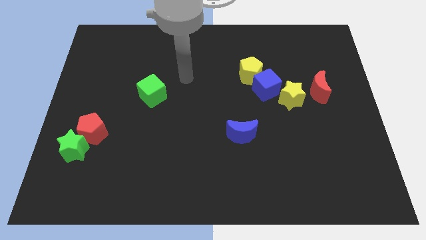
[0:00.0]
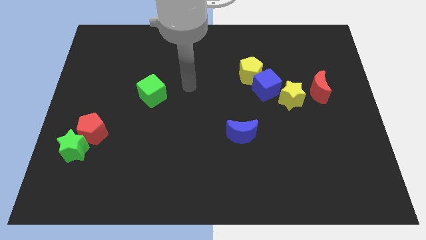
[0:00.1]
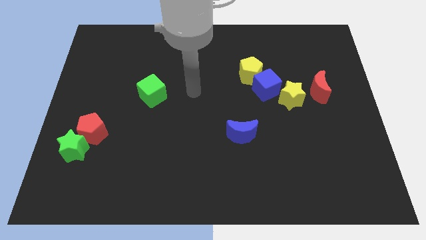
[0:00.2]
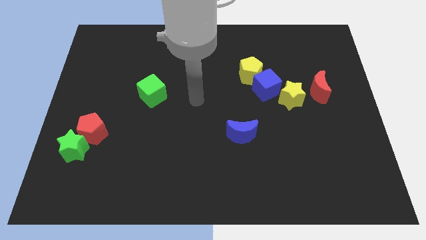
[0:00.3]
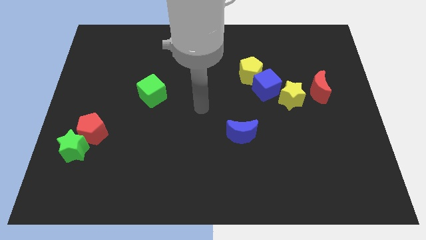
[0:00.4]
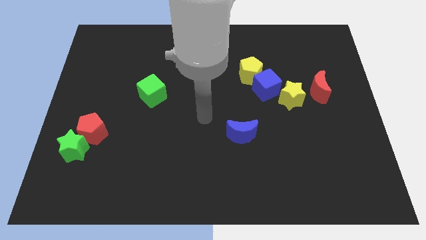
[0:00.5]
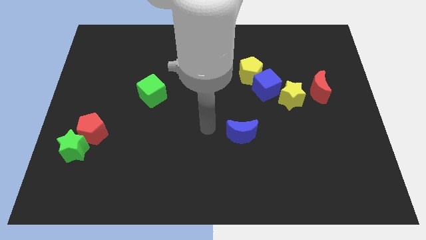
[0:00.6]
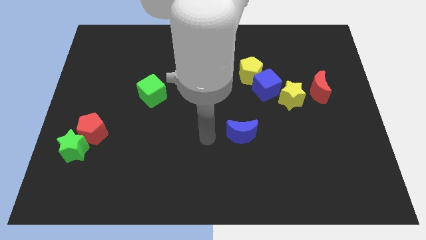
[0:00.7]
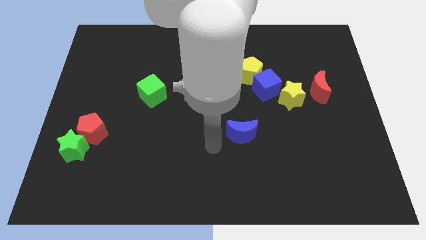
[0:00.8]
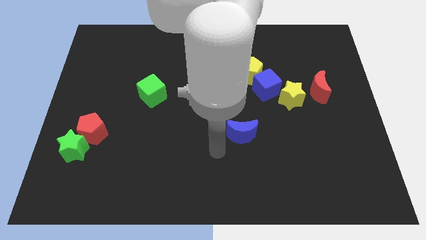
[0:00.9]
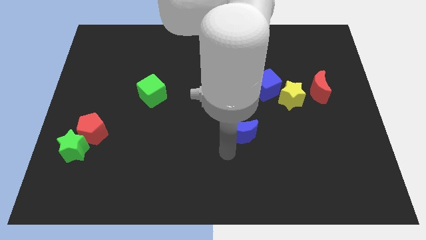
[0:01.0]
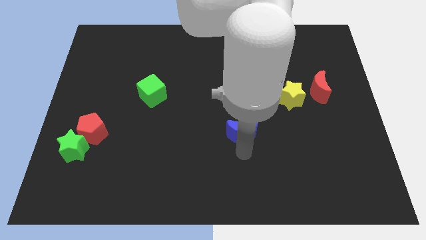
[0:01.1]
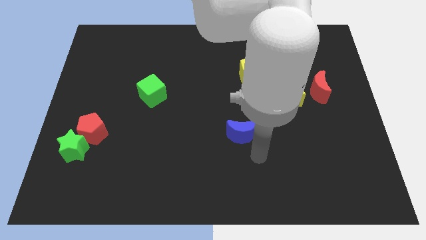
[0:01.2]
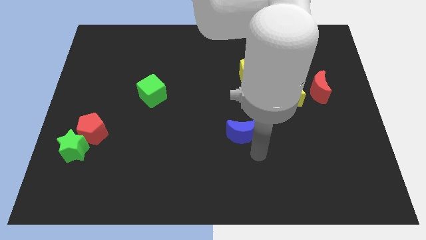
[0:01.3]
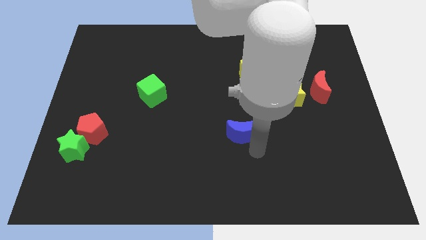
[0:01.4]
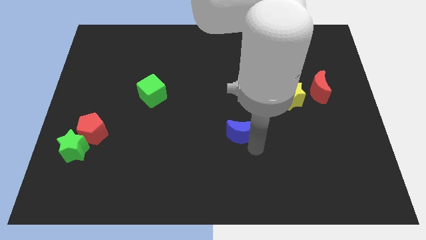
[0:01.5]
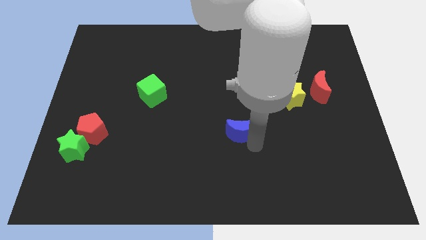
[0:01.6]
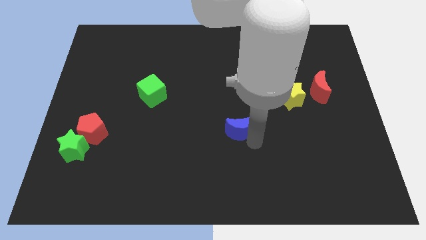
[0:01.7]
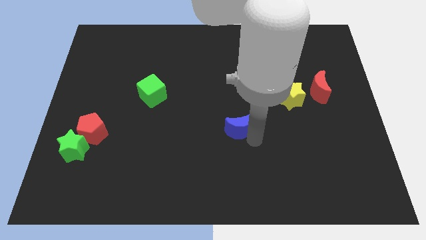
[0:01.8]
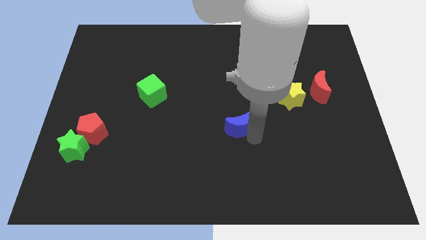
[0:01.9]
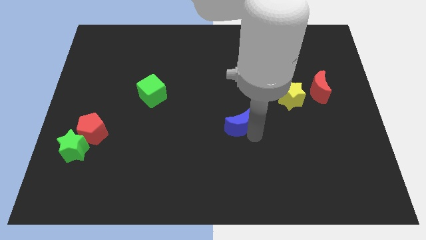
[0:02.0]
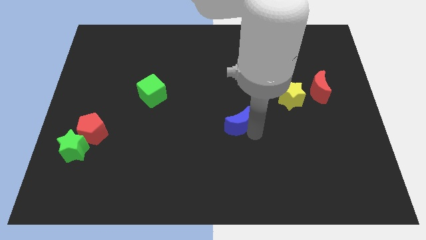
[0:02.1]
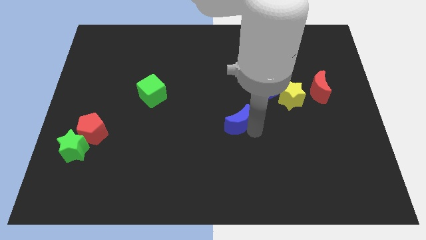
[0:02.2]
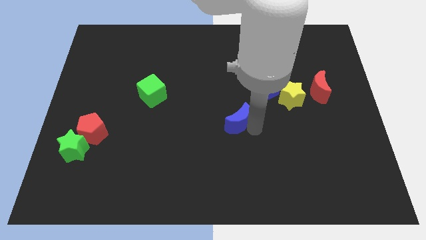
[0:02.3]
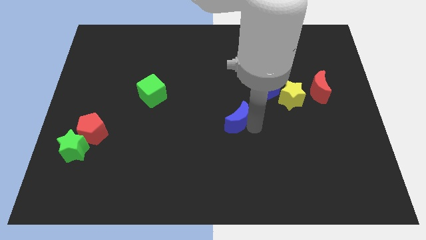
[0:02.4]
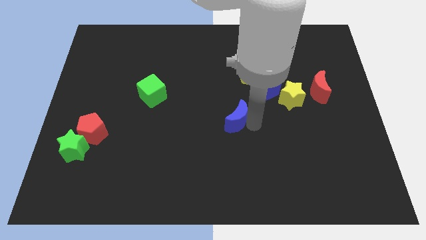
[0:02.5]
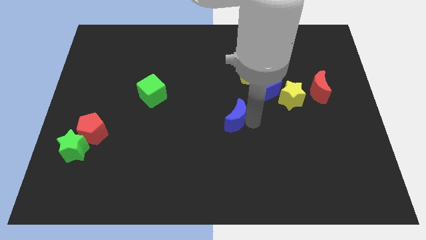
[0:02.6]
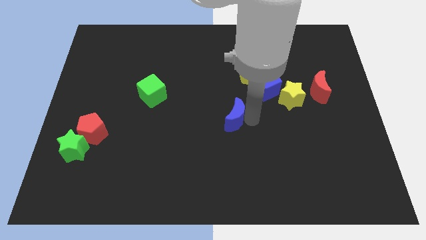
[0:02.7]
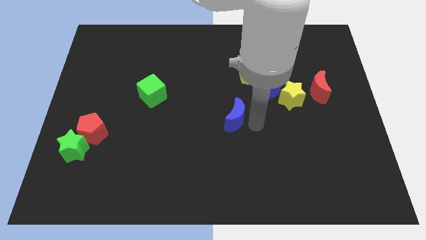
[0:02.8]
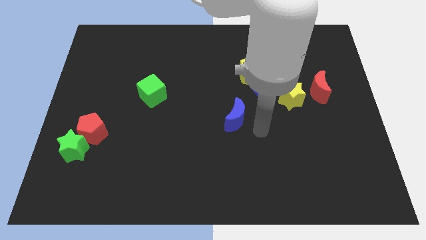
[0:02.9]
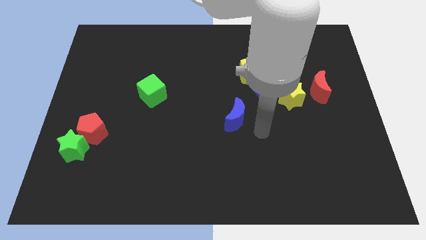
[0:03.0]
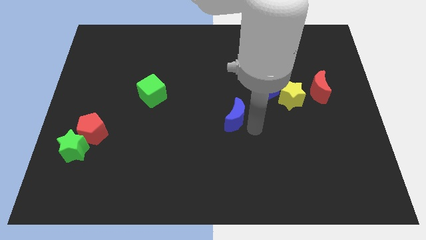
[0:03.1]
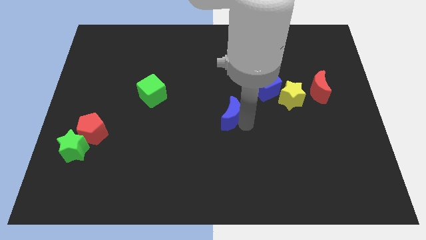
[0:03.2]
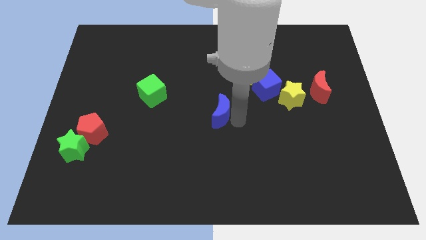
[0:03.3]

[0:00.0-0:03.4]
slide the blue moon a little upwards and left

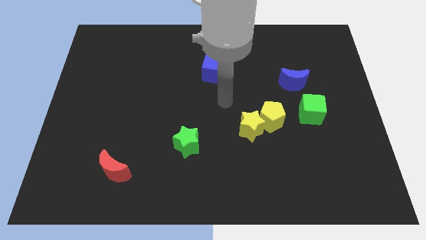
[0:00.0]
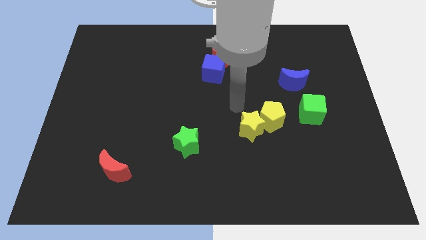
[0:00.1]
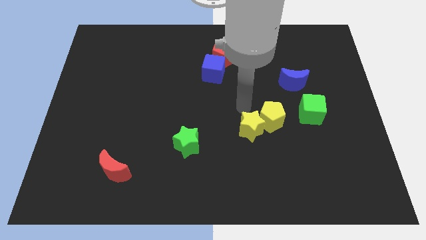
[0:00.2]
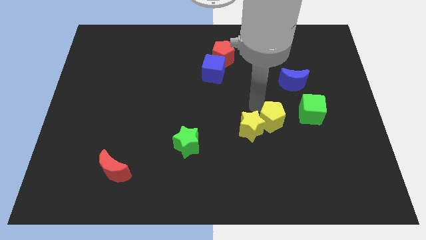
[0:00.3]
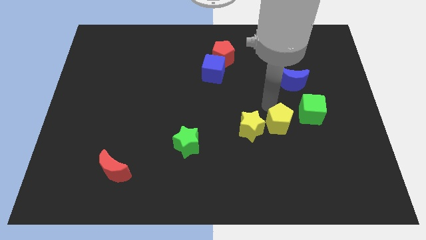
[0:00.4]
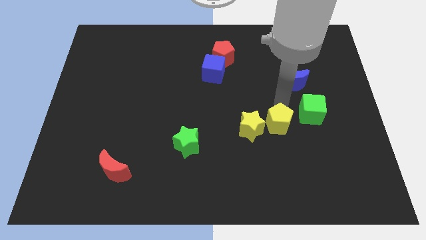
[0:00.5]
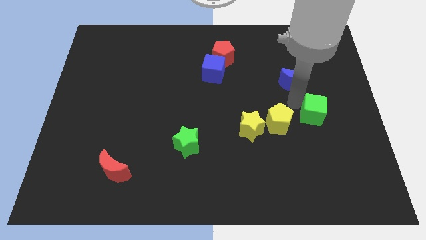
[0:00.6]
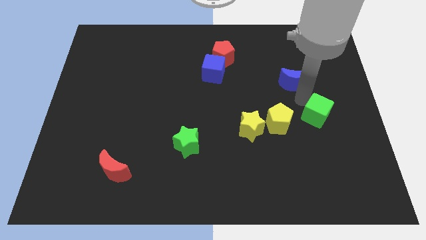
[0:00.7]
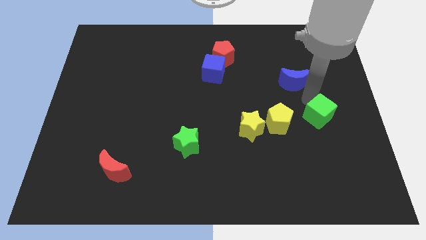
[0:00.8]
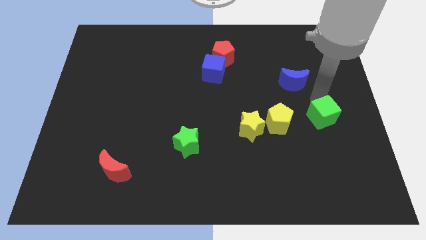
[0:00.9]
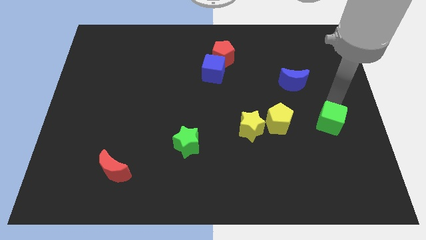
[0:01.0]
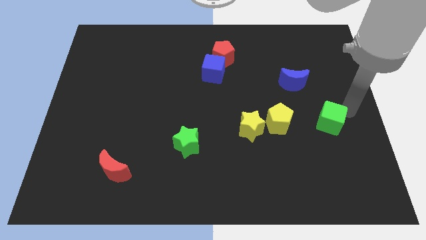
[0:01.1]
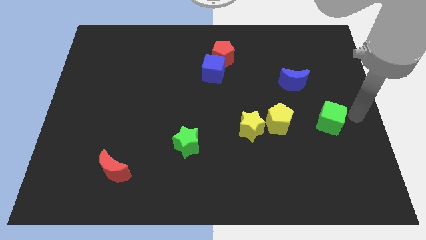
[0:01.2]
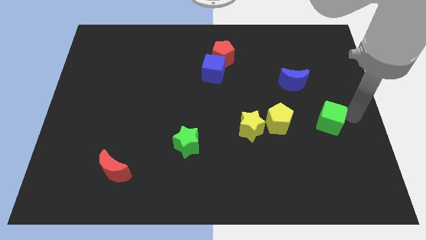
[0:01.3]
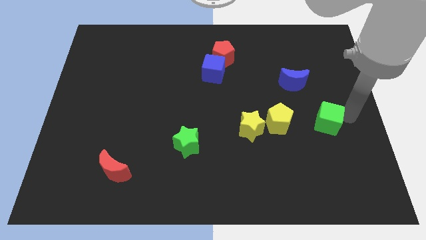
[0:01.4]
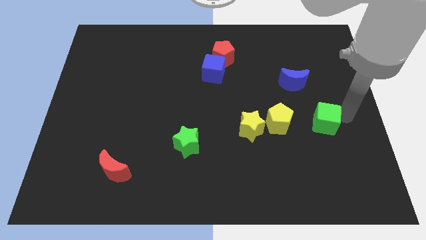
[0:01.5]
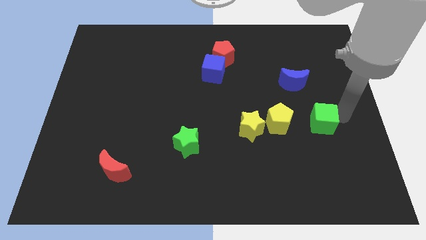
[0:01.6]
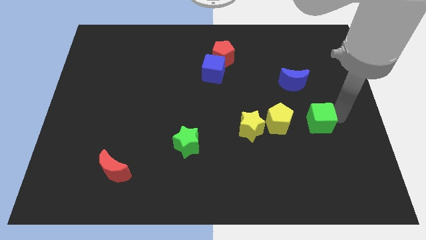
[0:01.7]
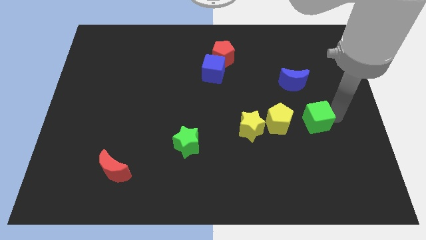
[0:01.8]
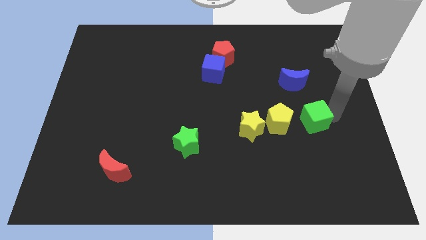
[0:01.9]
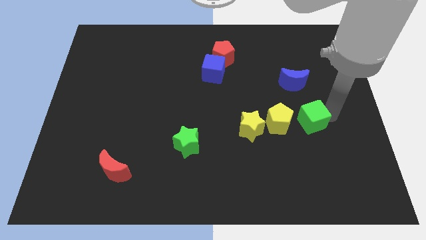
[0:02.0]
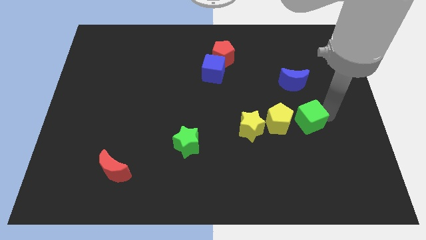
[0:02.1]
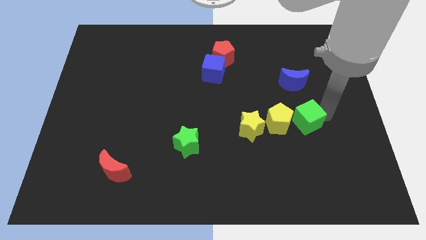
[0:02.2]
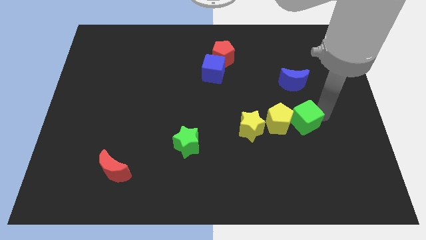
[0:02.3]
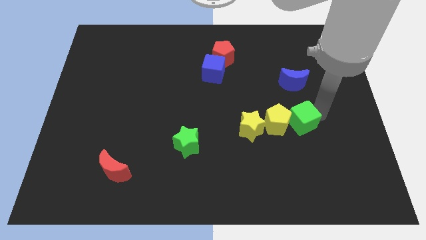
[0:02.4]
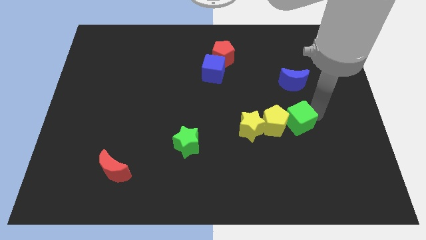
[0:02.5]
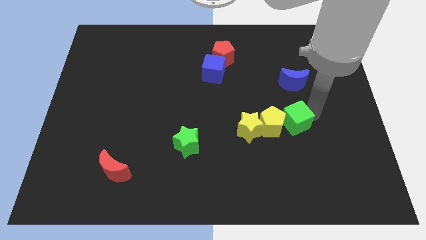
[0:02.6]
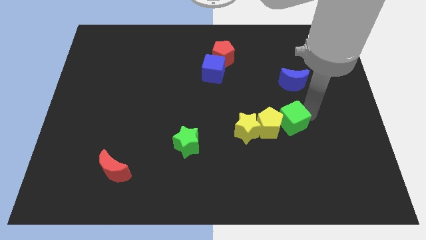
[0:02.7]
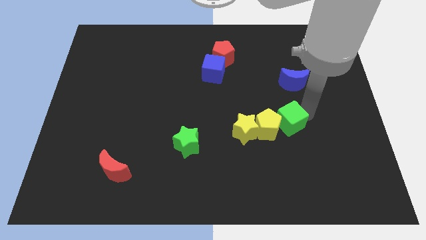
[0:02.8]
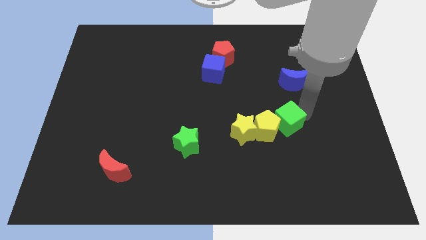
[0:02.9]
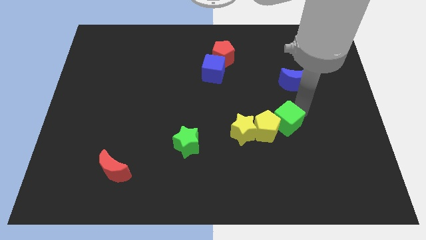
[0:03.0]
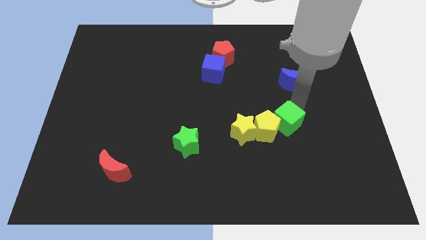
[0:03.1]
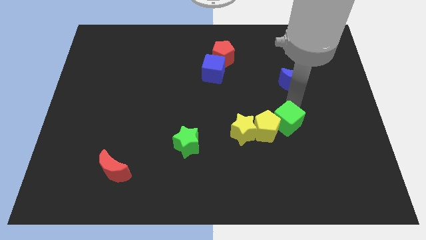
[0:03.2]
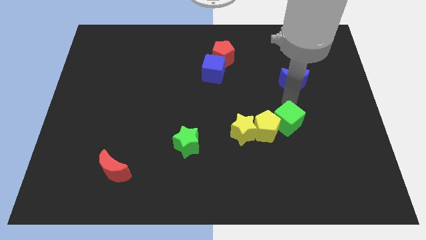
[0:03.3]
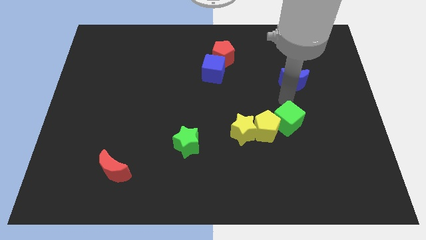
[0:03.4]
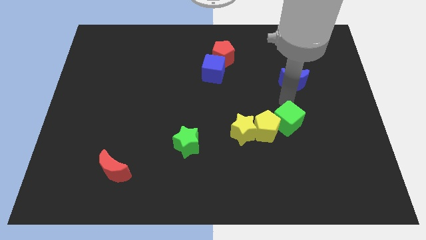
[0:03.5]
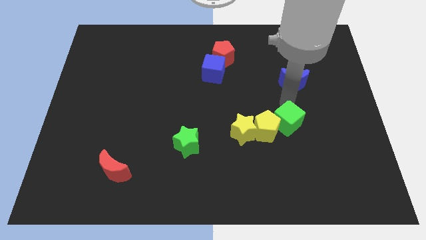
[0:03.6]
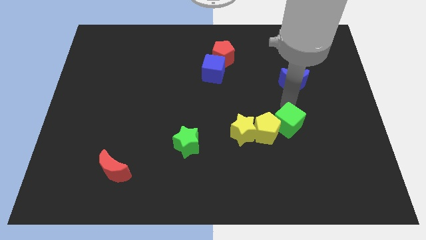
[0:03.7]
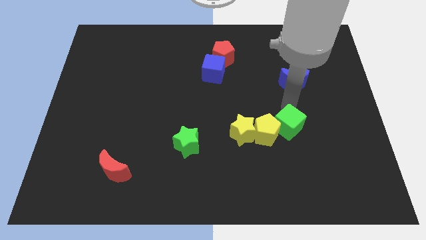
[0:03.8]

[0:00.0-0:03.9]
slightly slide the green cube down and left

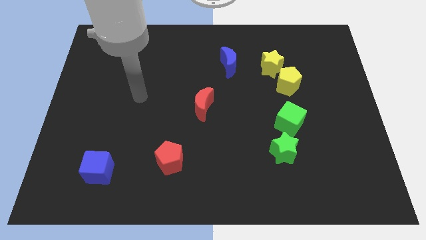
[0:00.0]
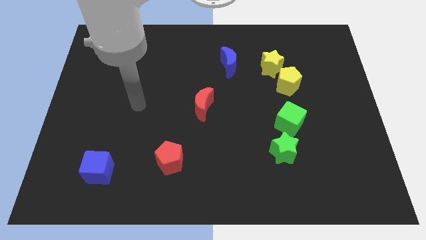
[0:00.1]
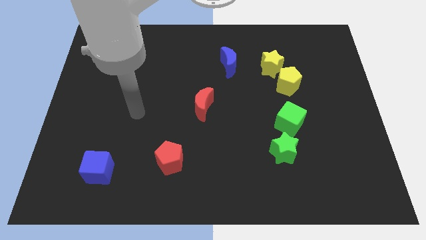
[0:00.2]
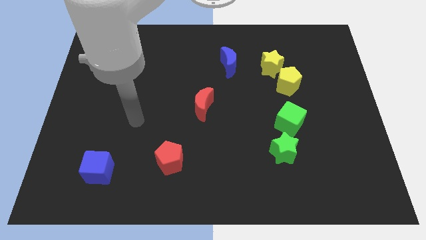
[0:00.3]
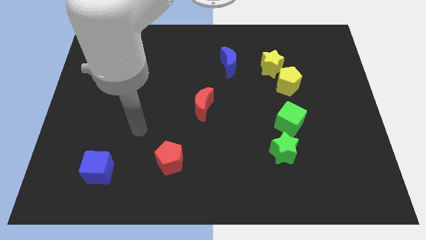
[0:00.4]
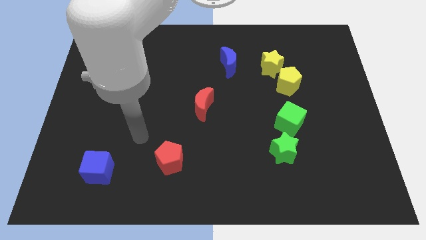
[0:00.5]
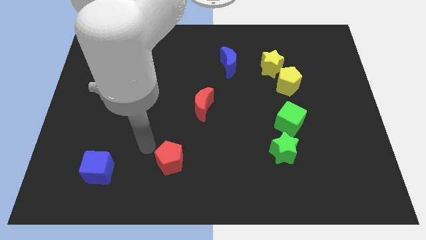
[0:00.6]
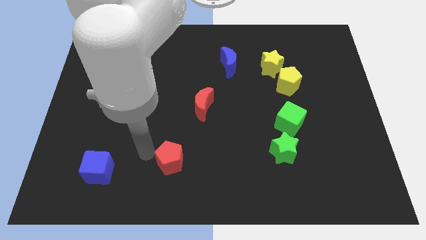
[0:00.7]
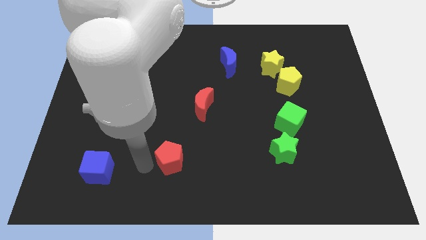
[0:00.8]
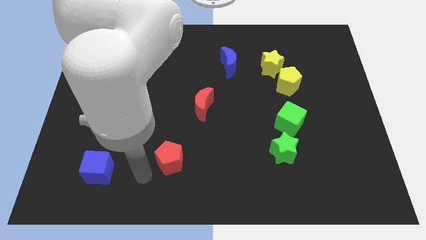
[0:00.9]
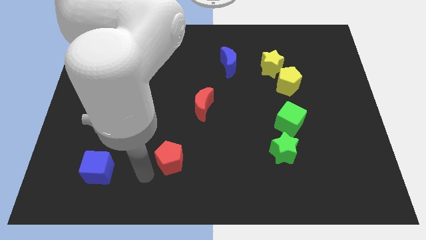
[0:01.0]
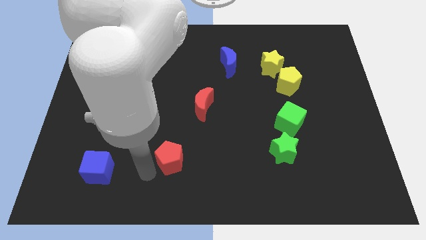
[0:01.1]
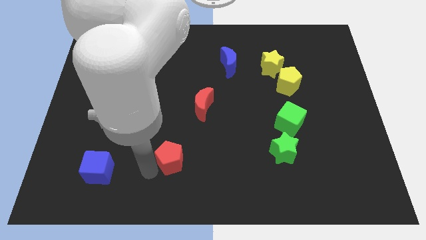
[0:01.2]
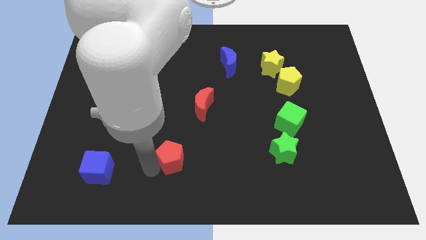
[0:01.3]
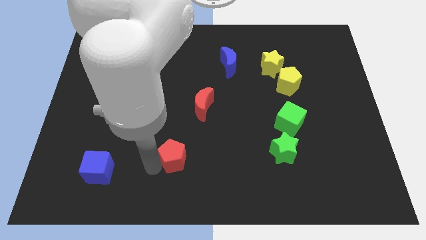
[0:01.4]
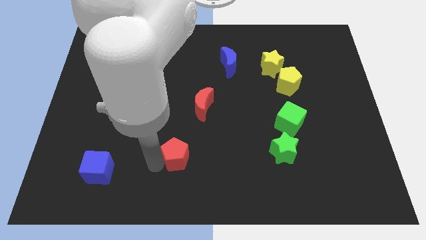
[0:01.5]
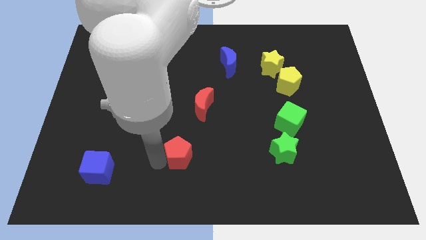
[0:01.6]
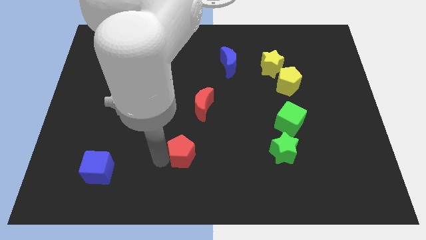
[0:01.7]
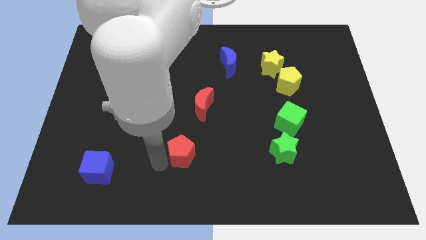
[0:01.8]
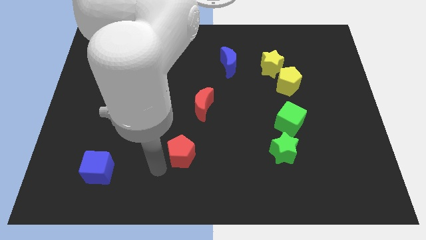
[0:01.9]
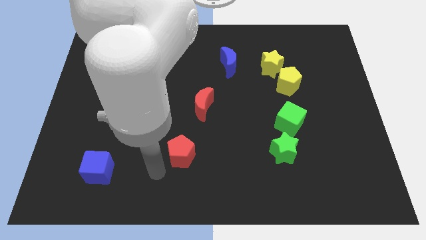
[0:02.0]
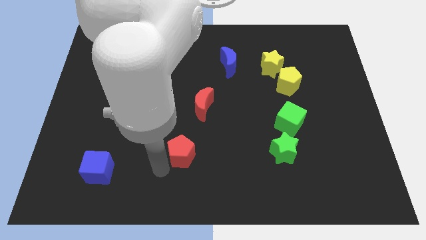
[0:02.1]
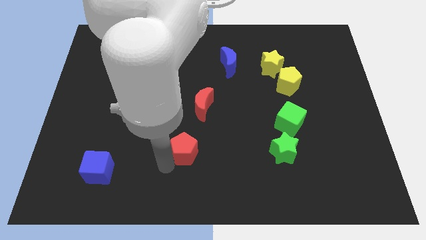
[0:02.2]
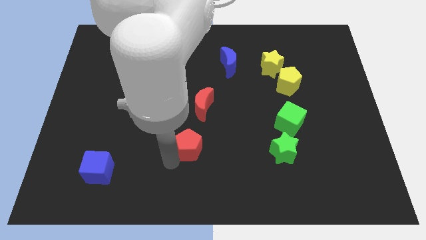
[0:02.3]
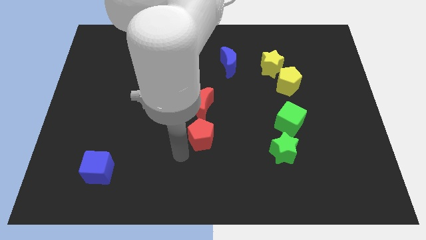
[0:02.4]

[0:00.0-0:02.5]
slightly slide the red pentagon diagonally up and to the right
